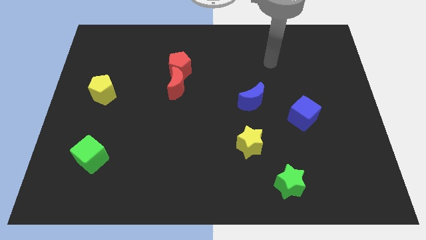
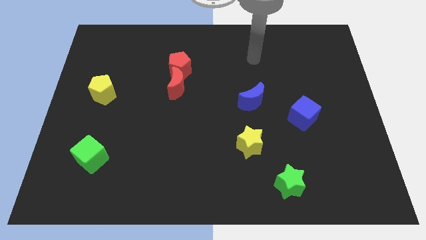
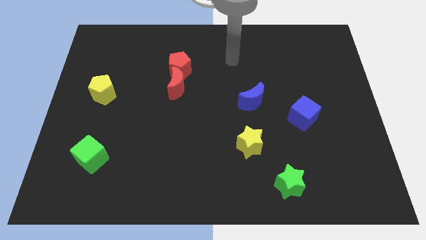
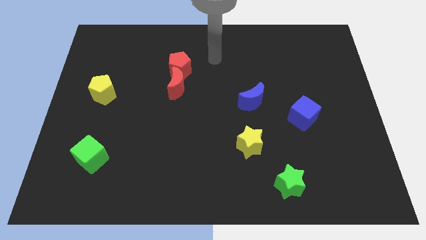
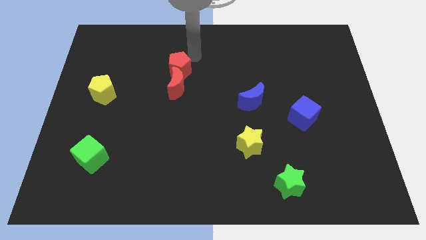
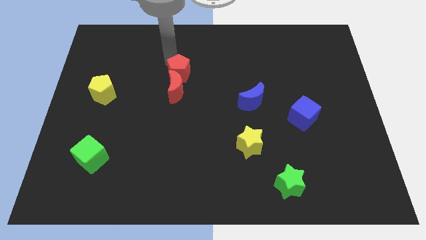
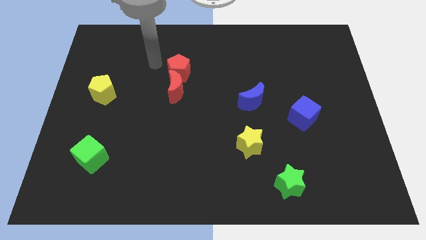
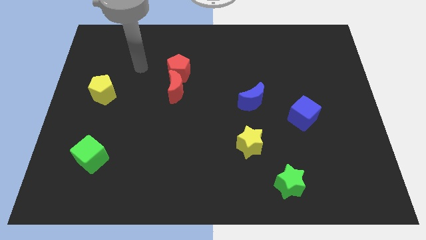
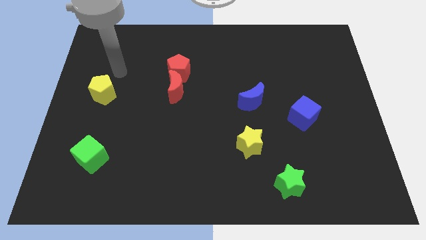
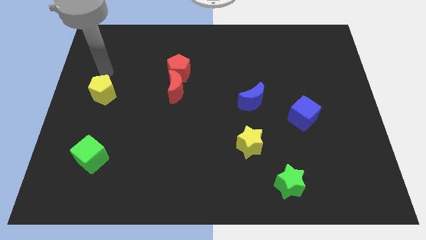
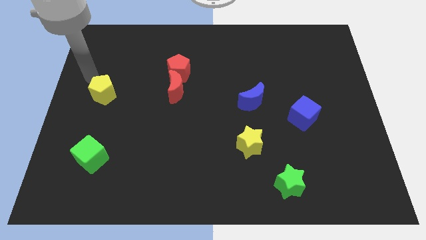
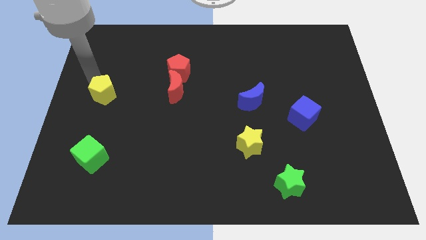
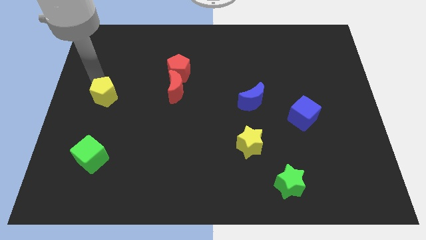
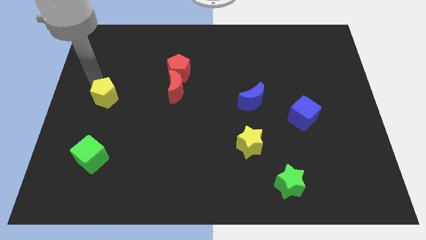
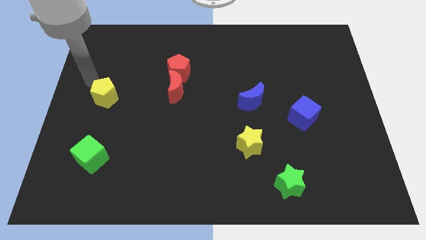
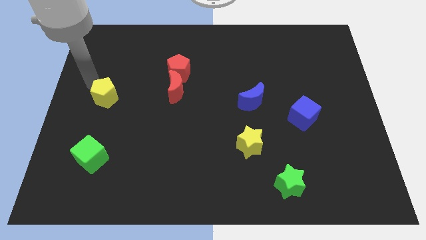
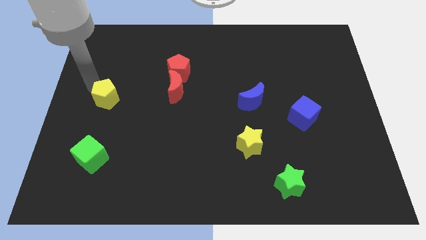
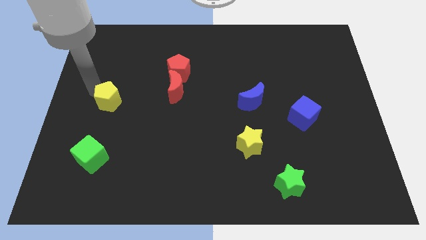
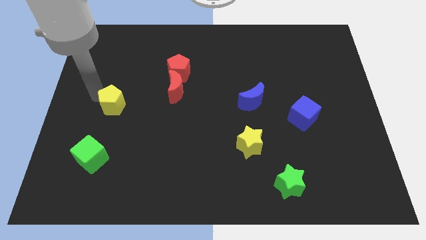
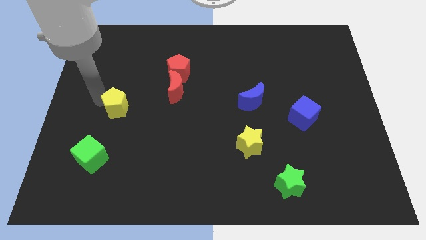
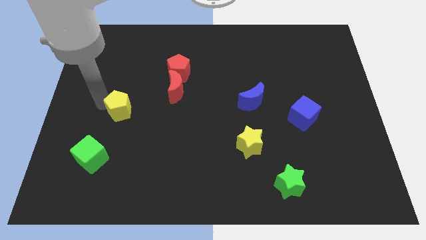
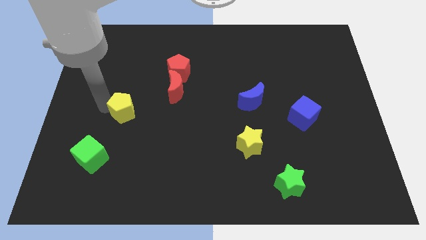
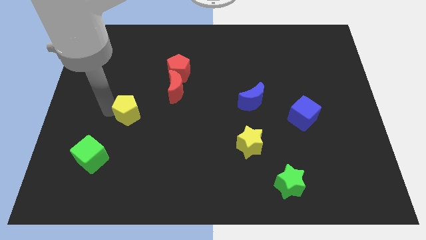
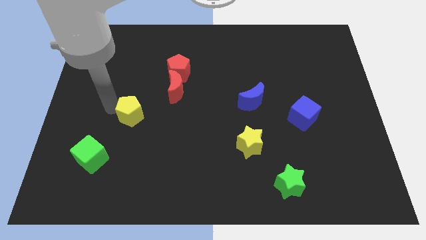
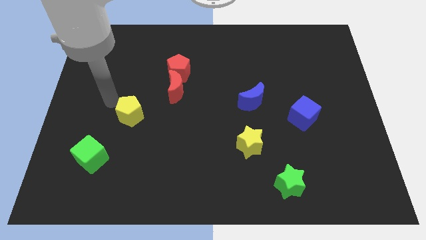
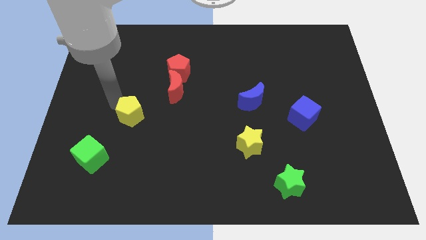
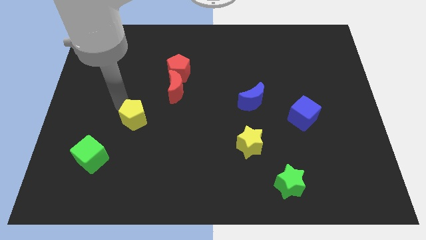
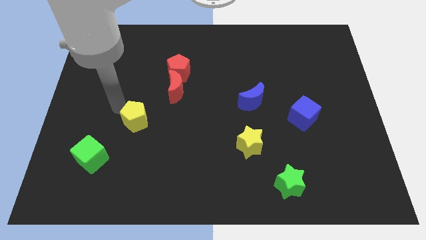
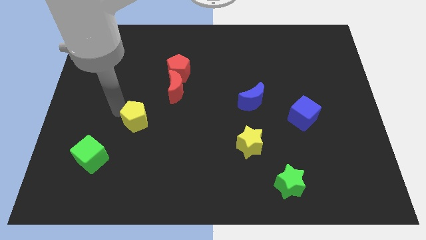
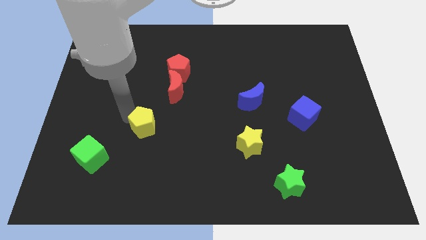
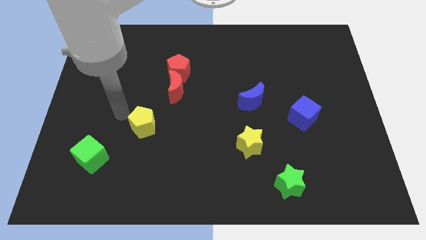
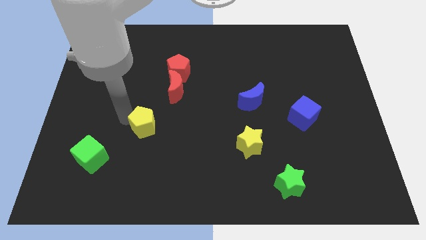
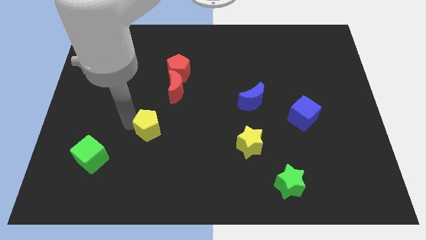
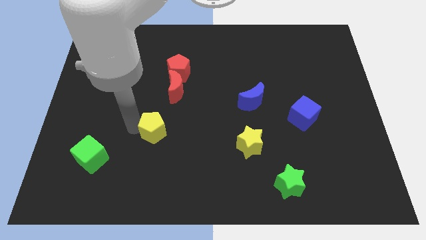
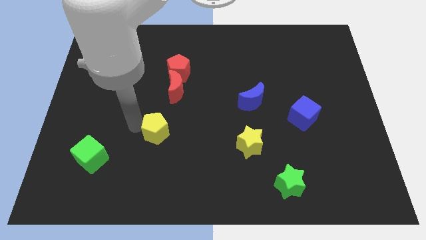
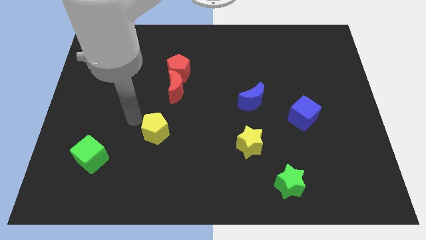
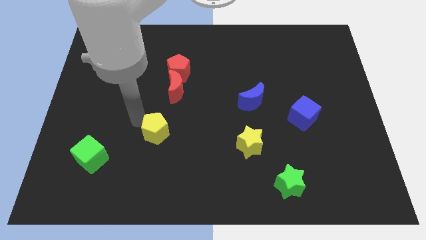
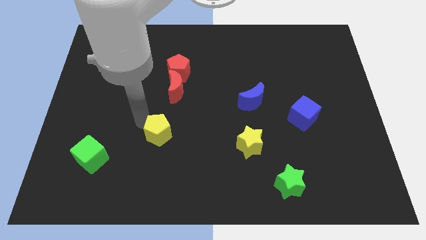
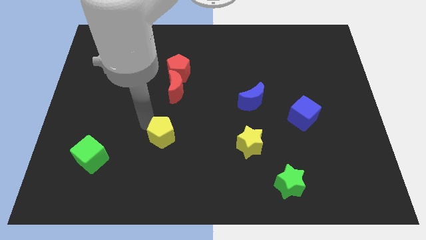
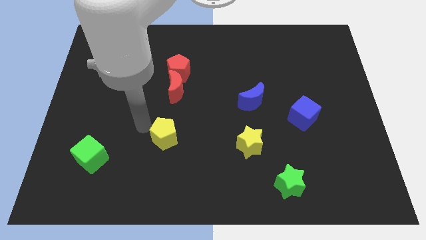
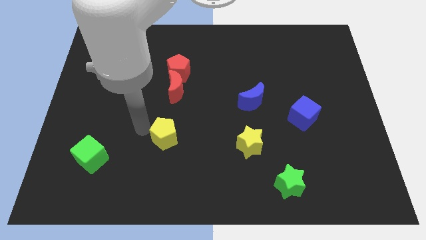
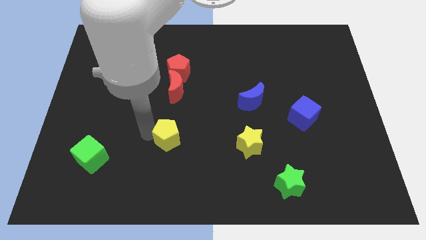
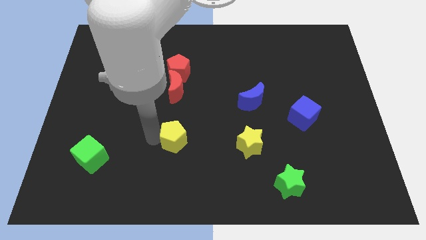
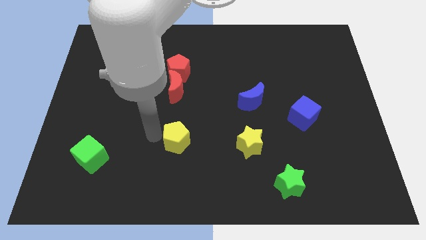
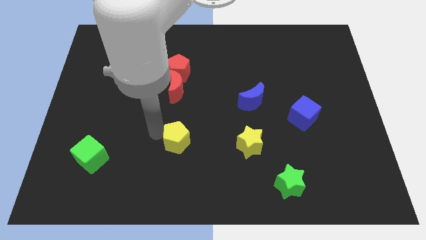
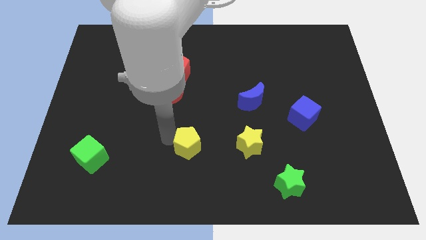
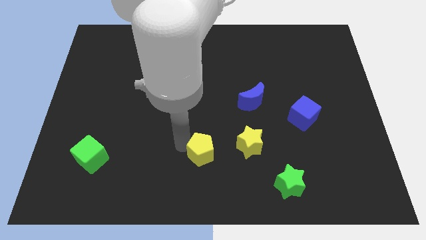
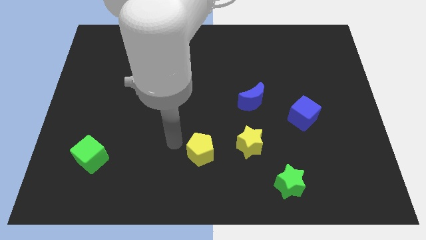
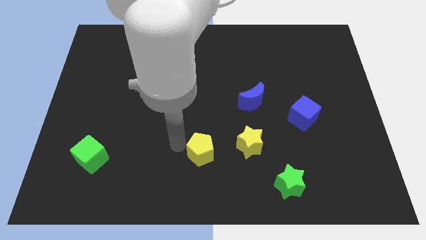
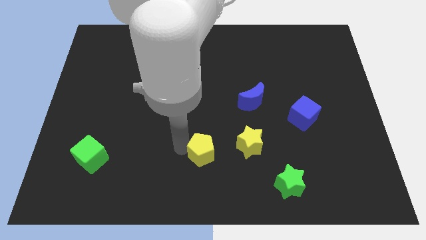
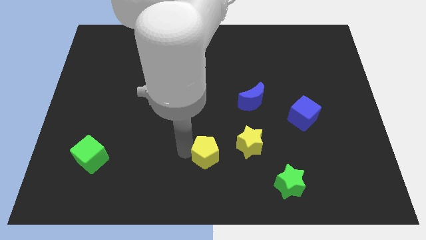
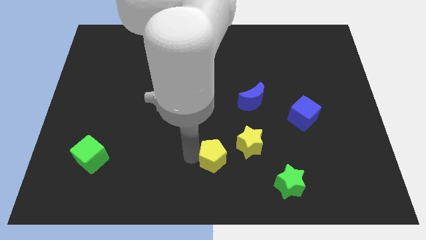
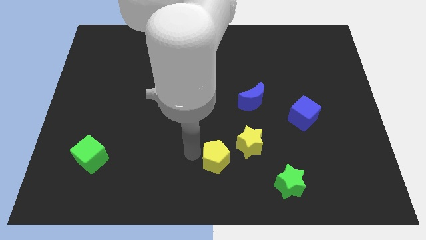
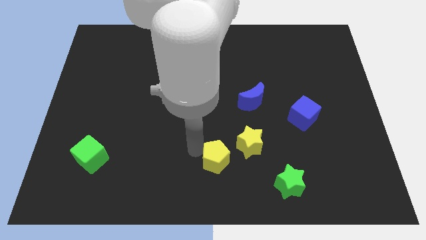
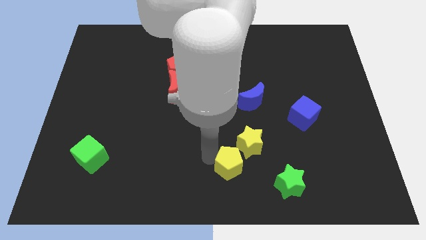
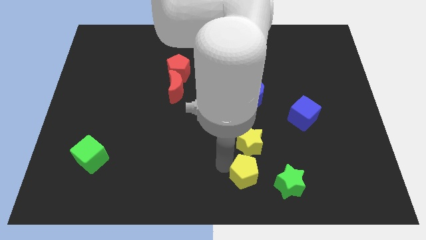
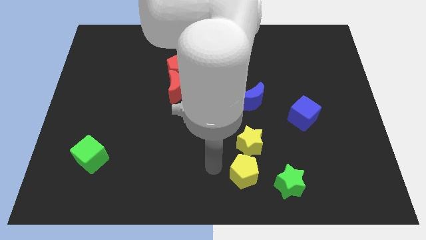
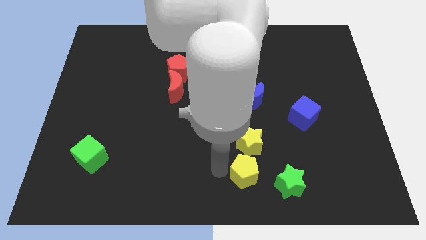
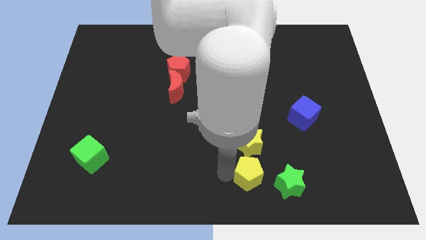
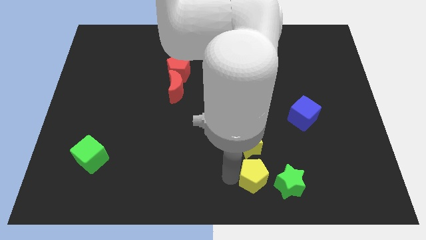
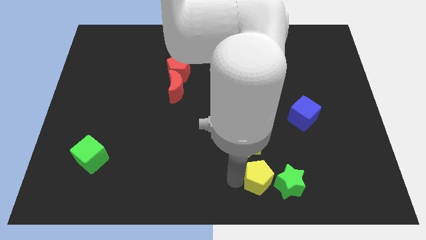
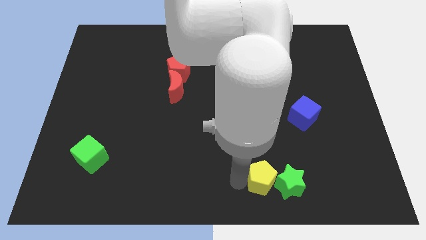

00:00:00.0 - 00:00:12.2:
slide the yellow pentagon towards the green star

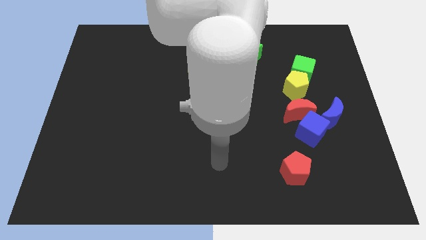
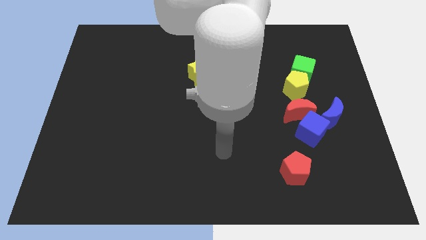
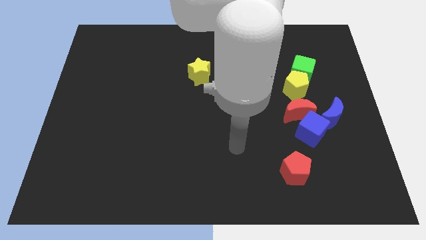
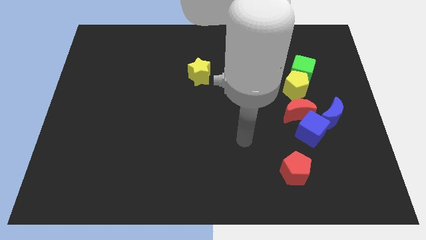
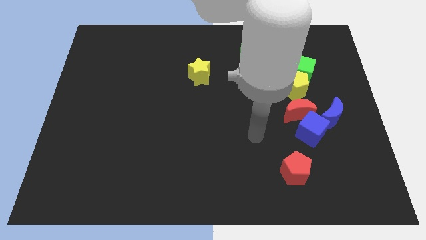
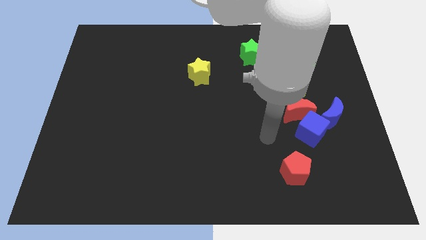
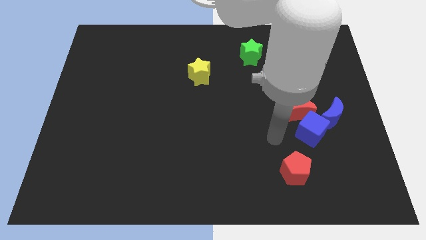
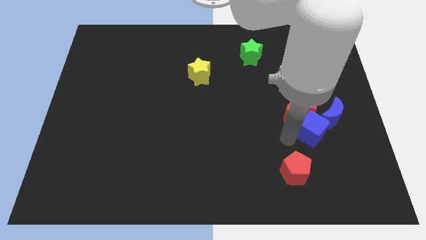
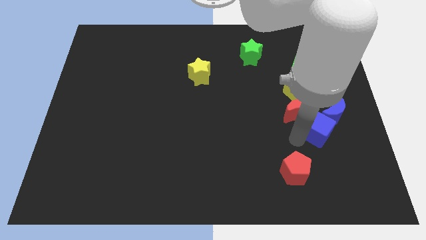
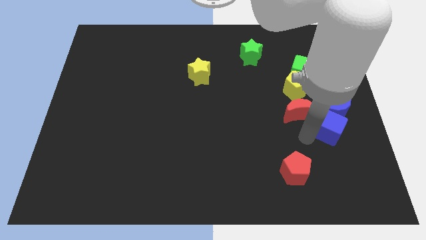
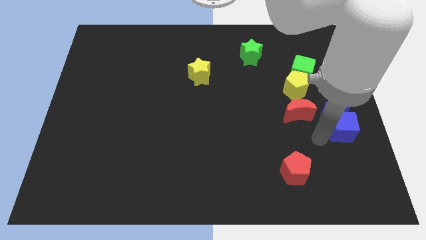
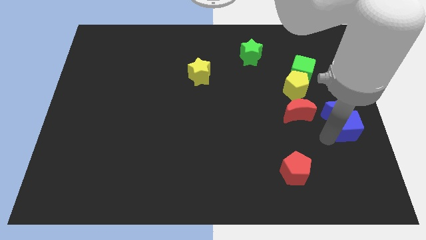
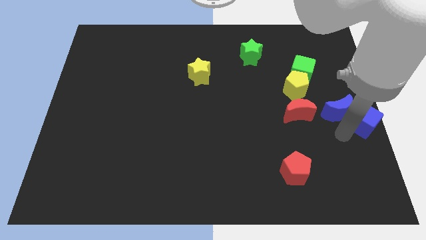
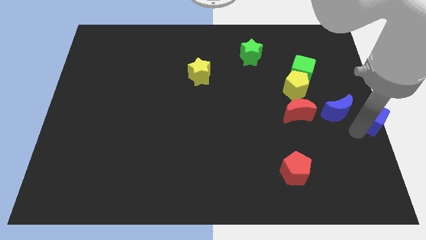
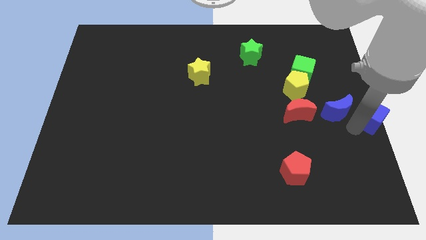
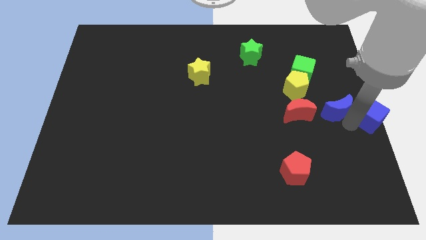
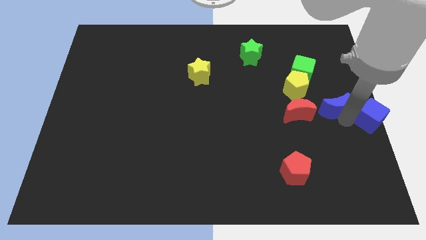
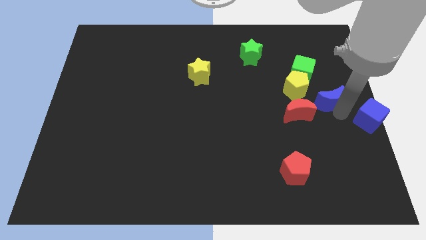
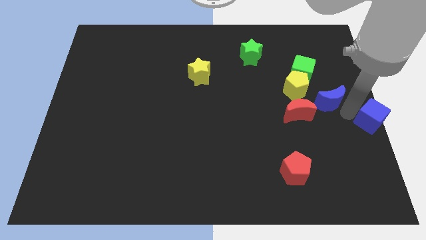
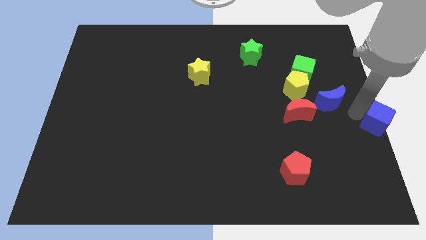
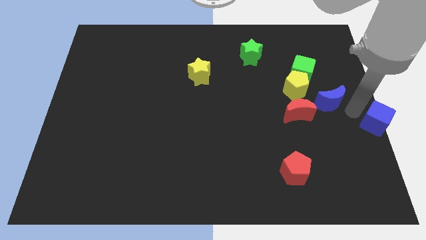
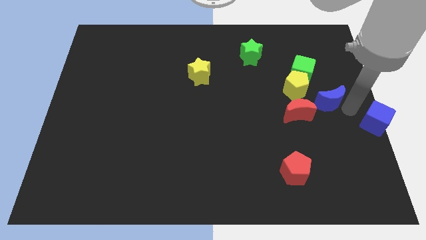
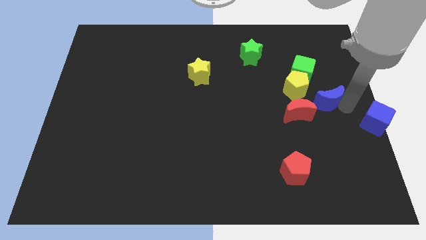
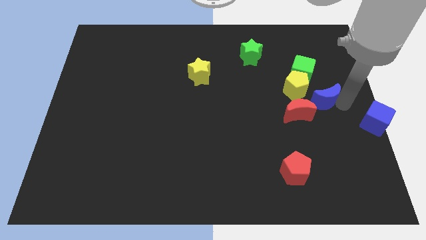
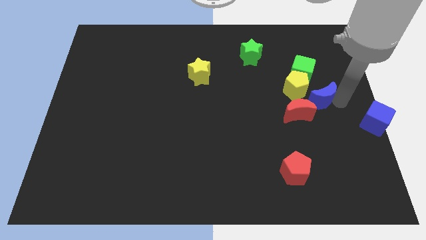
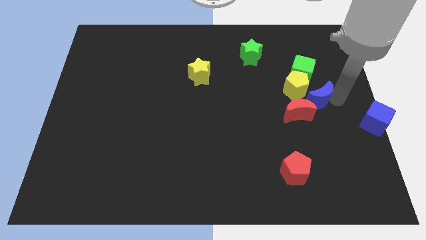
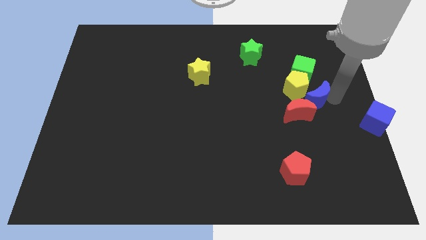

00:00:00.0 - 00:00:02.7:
put the blue moon towards the yellow pentagon
